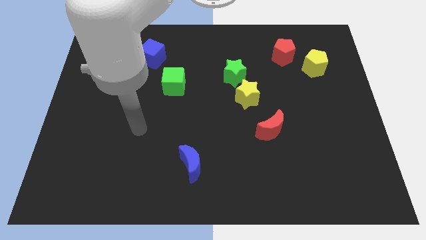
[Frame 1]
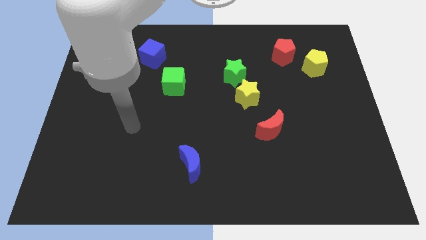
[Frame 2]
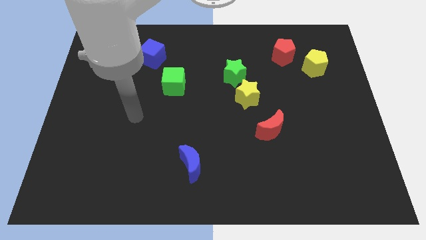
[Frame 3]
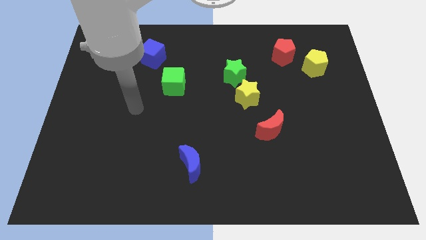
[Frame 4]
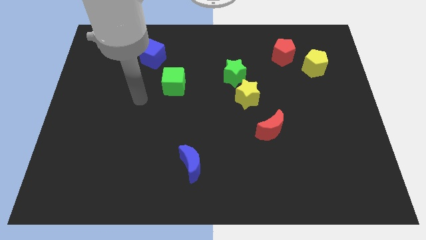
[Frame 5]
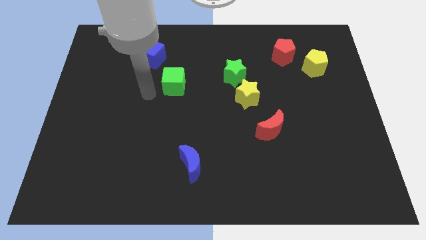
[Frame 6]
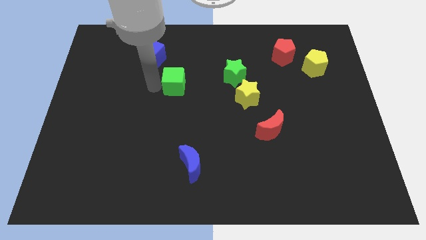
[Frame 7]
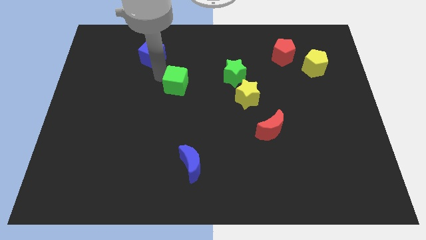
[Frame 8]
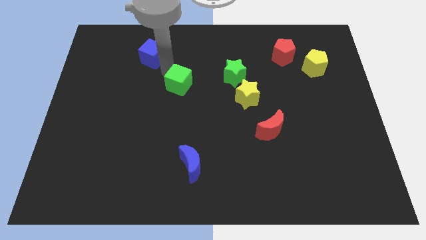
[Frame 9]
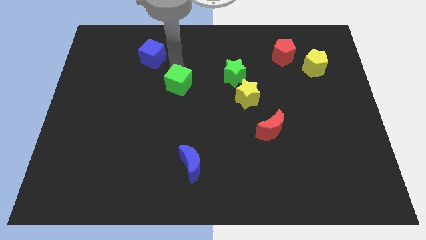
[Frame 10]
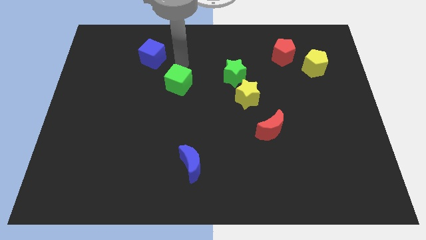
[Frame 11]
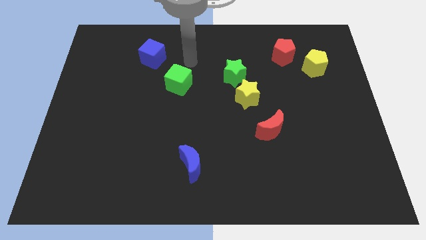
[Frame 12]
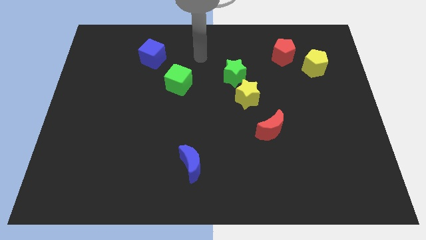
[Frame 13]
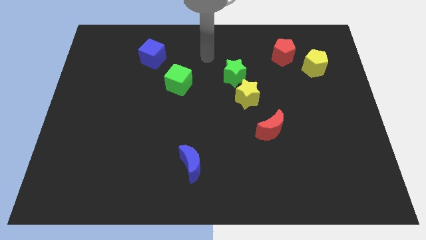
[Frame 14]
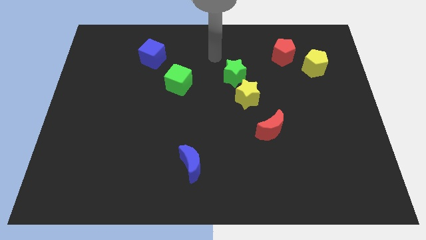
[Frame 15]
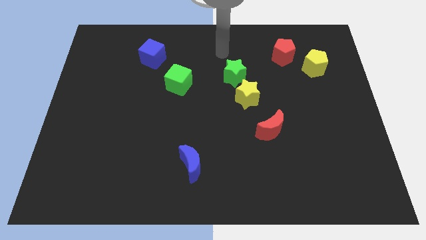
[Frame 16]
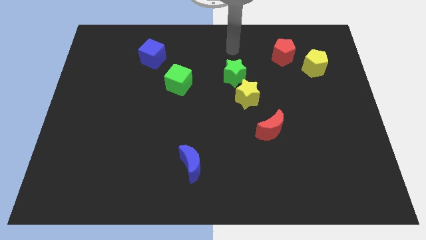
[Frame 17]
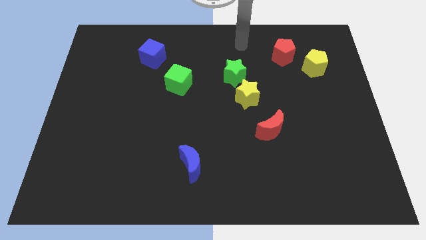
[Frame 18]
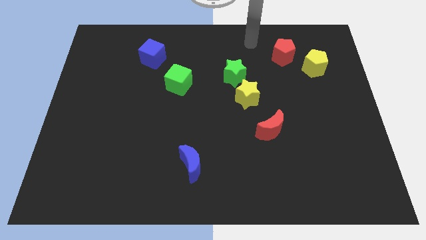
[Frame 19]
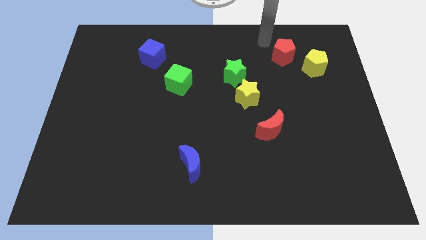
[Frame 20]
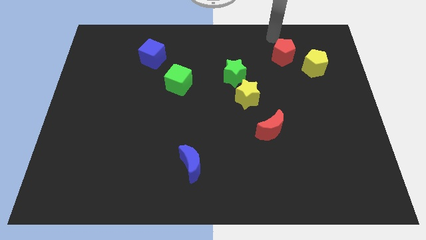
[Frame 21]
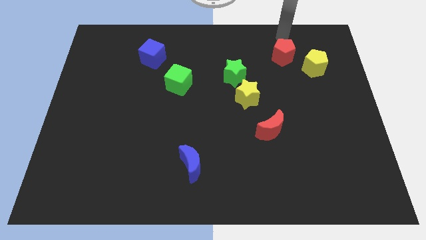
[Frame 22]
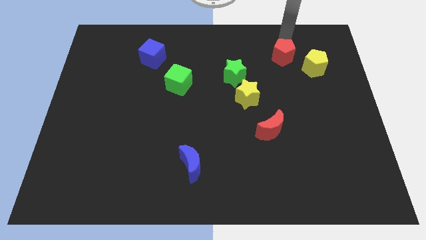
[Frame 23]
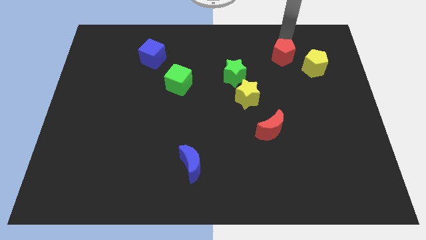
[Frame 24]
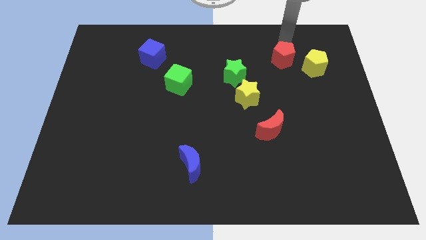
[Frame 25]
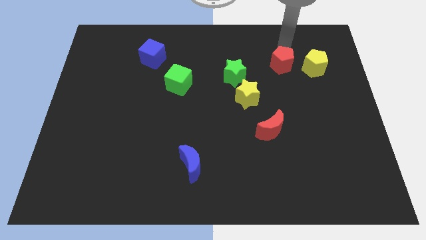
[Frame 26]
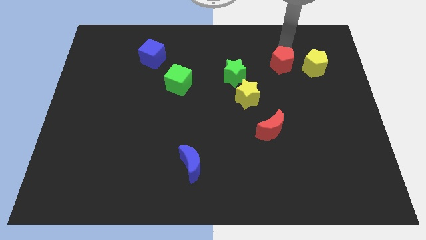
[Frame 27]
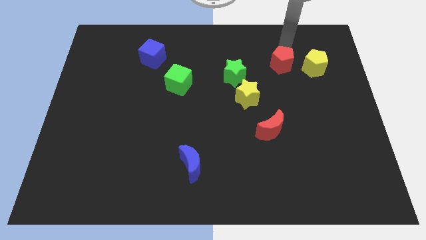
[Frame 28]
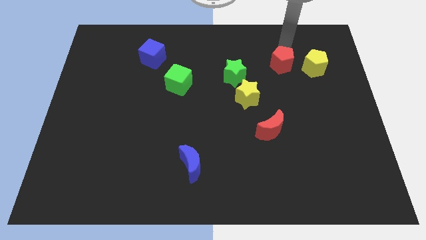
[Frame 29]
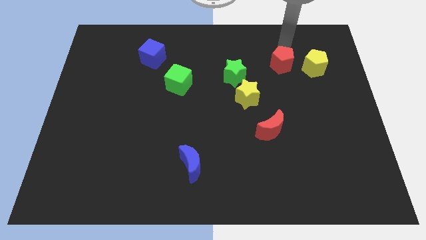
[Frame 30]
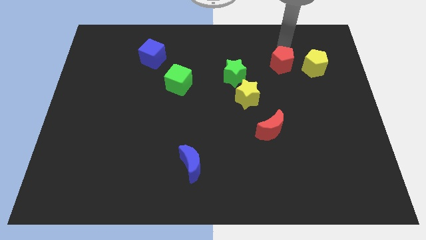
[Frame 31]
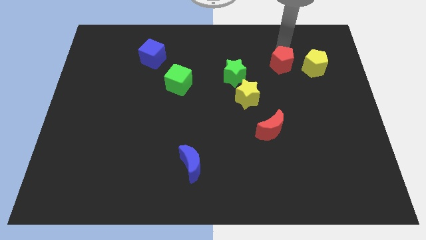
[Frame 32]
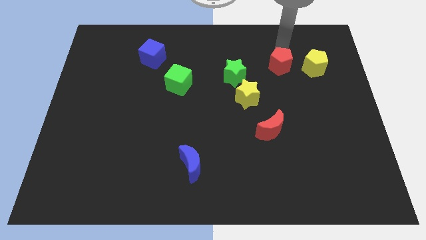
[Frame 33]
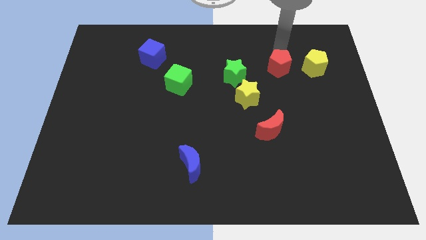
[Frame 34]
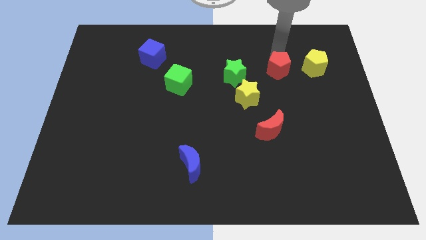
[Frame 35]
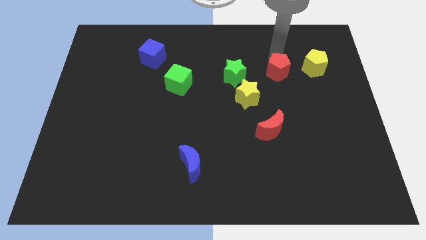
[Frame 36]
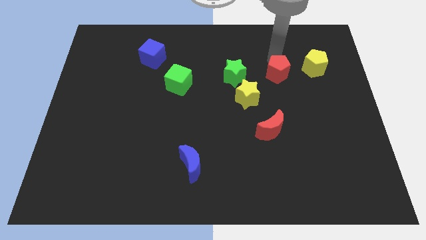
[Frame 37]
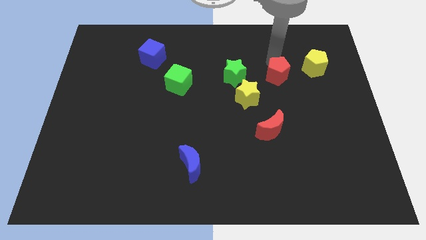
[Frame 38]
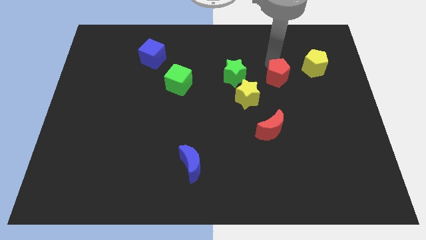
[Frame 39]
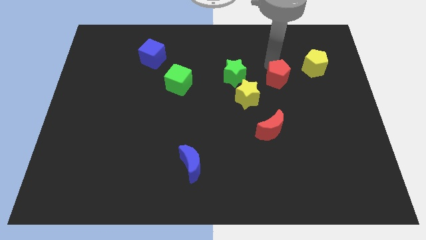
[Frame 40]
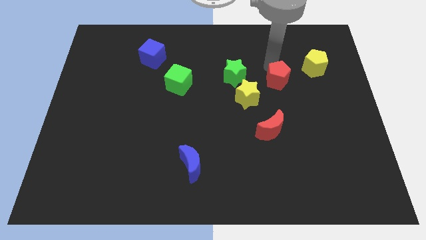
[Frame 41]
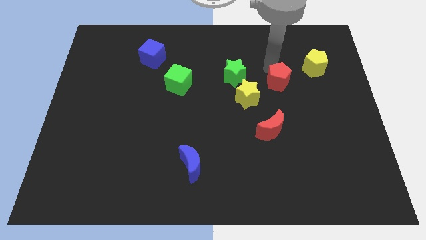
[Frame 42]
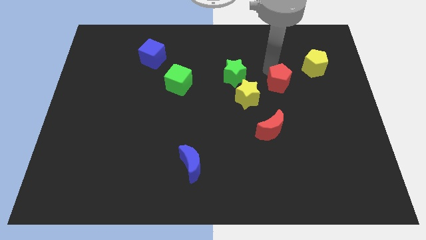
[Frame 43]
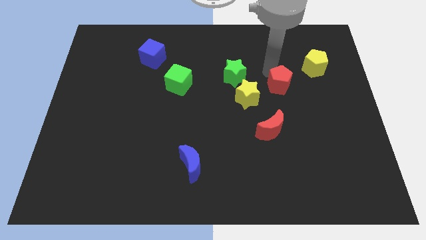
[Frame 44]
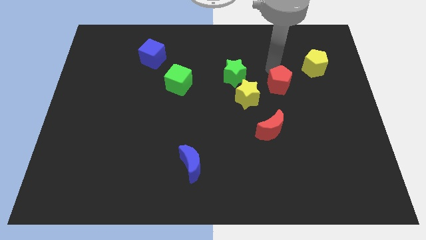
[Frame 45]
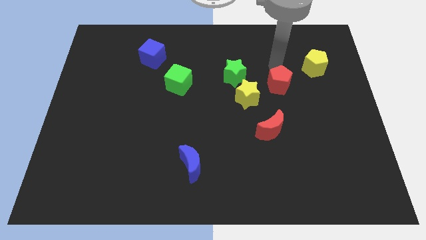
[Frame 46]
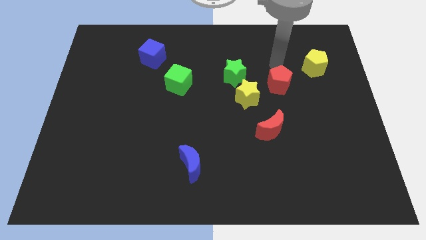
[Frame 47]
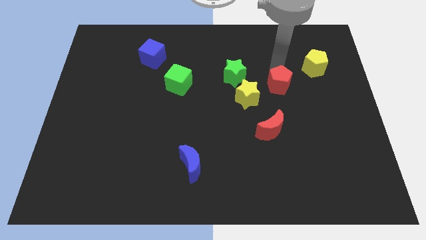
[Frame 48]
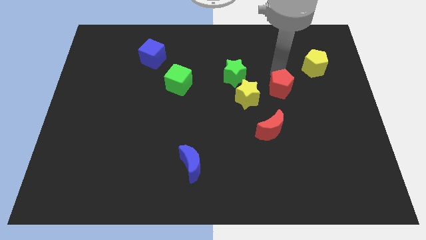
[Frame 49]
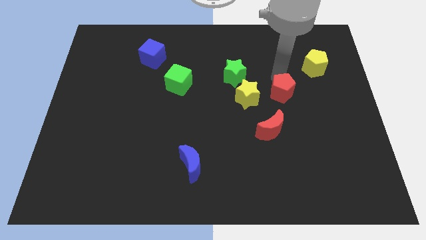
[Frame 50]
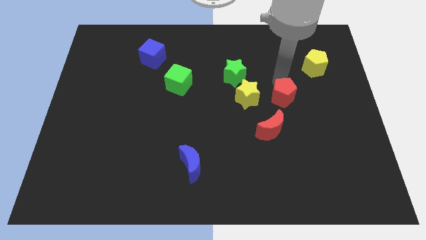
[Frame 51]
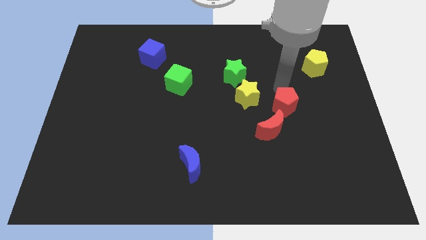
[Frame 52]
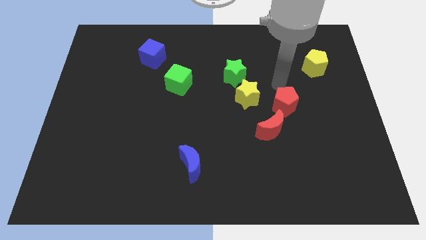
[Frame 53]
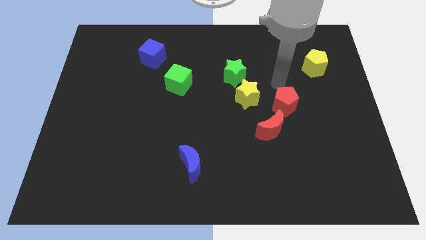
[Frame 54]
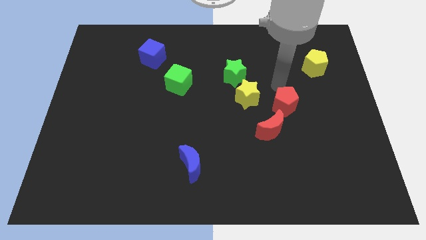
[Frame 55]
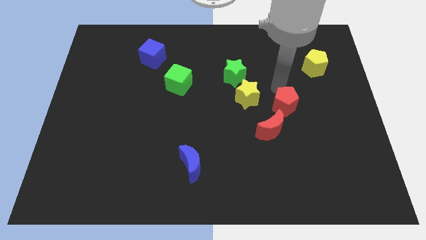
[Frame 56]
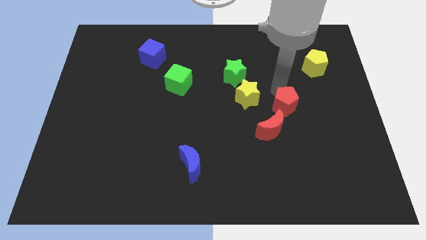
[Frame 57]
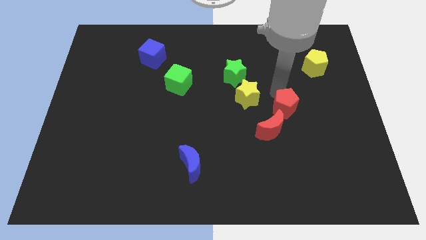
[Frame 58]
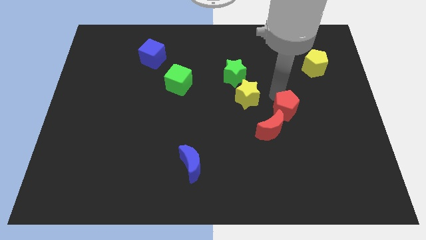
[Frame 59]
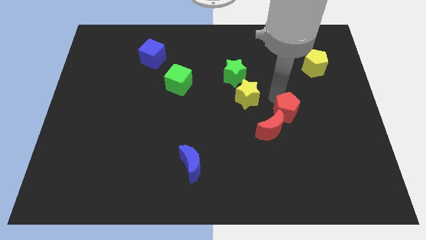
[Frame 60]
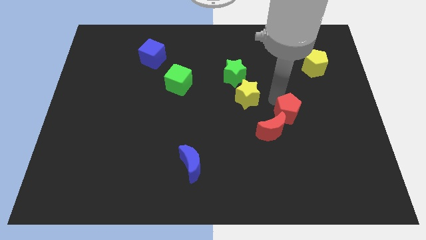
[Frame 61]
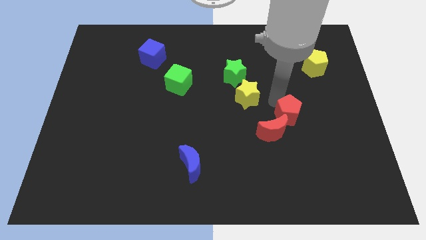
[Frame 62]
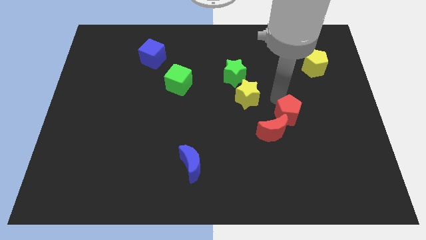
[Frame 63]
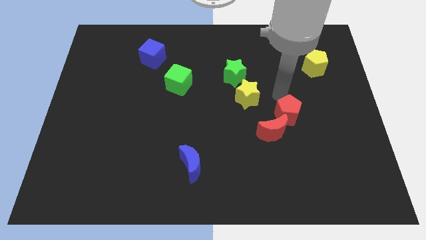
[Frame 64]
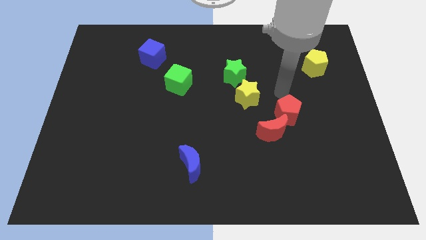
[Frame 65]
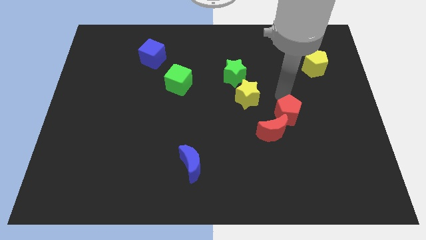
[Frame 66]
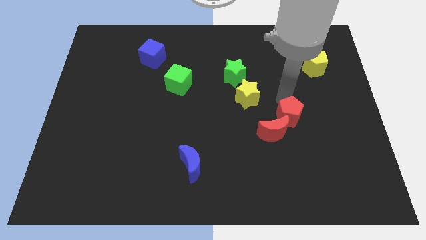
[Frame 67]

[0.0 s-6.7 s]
push the red pentagon down

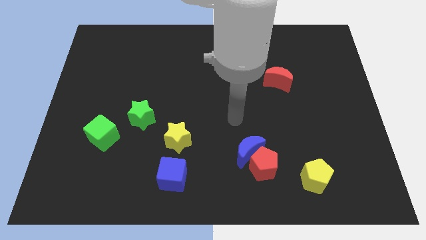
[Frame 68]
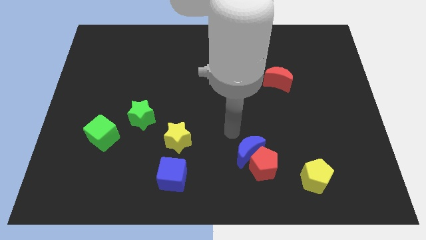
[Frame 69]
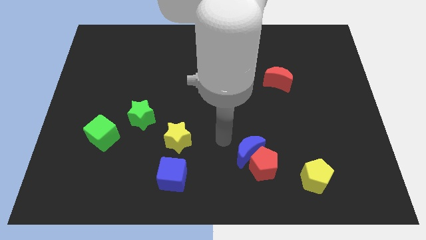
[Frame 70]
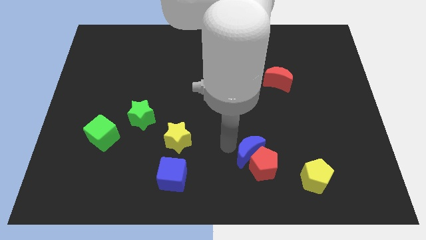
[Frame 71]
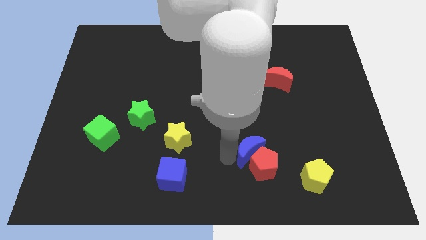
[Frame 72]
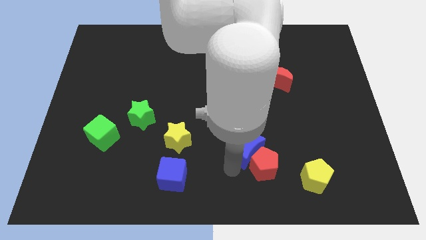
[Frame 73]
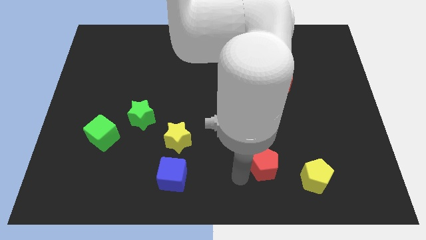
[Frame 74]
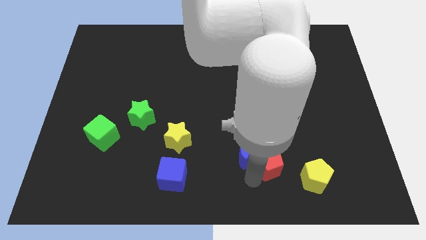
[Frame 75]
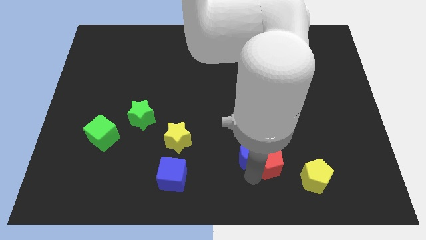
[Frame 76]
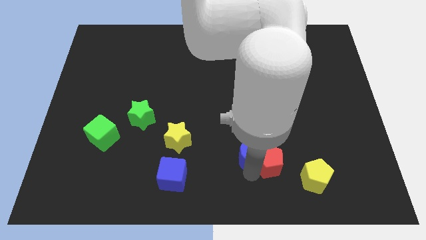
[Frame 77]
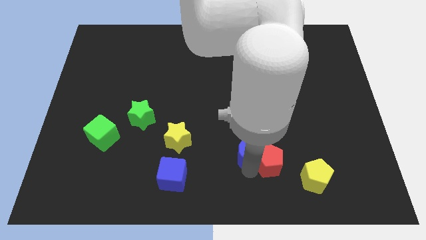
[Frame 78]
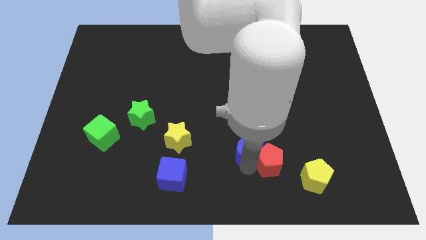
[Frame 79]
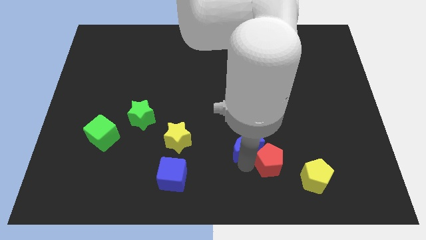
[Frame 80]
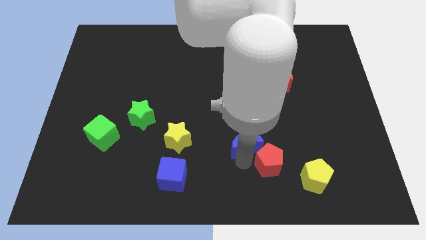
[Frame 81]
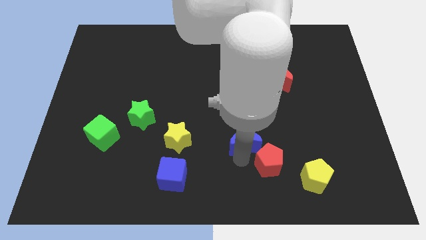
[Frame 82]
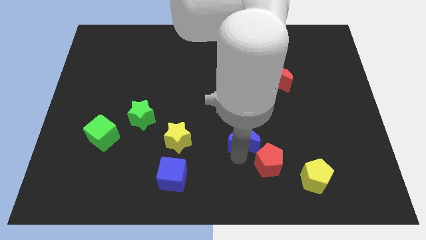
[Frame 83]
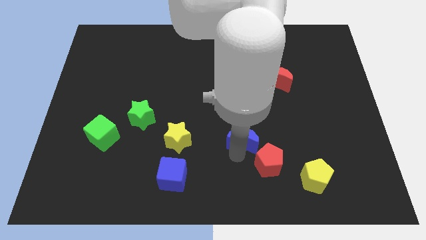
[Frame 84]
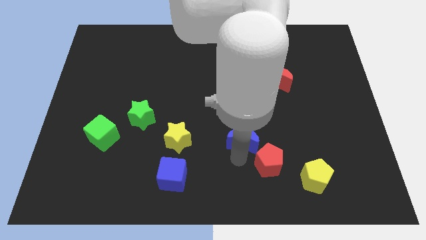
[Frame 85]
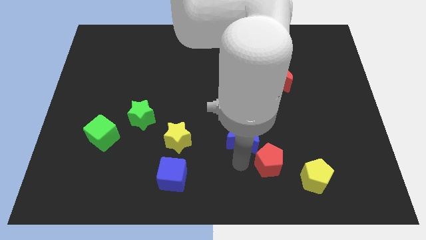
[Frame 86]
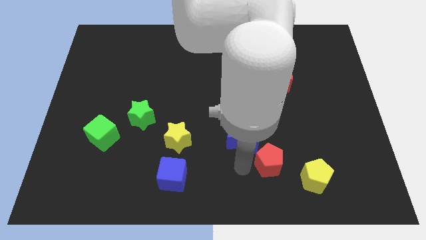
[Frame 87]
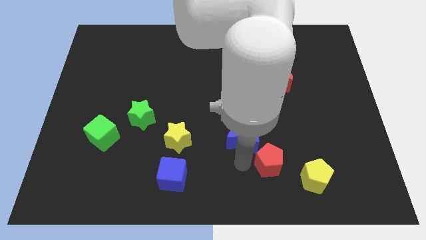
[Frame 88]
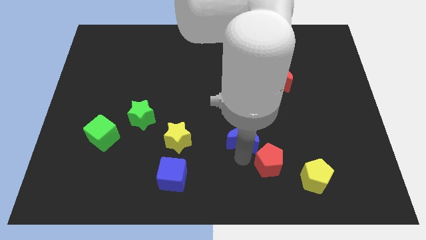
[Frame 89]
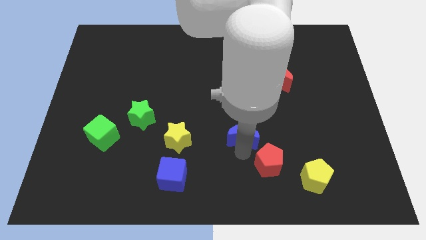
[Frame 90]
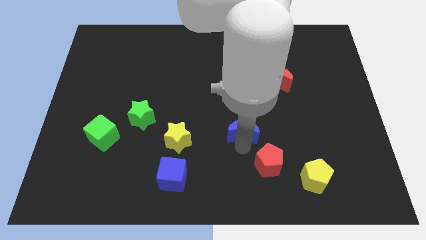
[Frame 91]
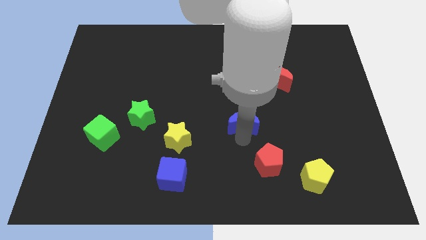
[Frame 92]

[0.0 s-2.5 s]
slide the blue moon a little bit up
